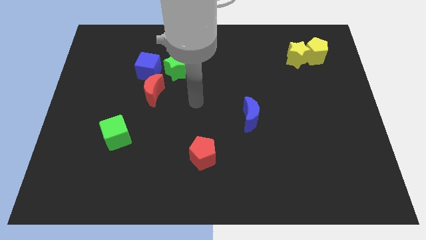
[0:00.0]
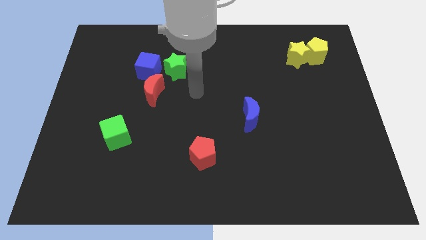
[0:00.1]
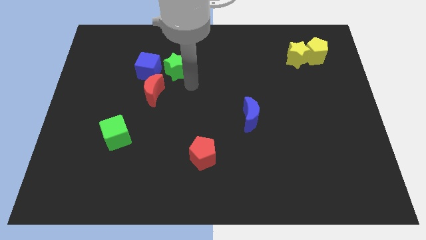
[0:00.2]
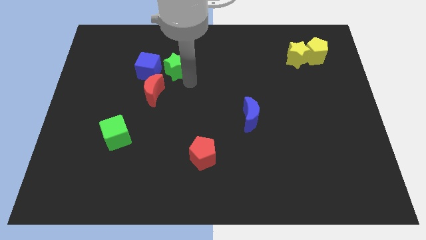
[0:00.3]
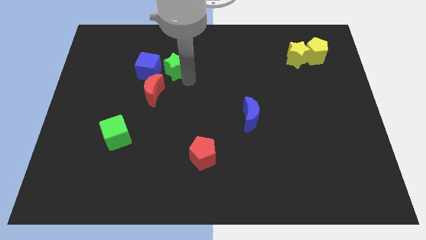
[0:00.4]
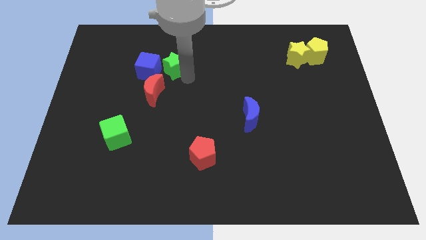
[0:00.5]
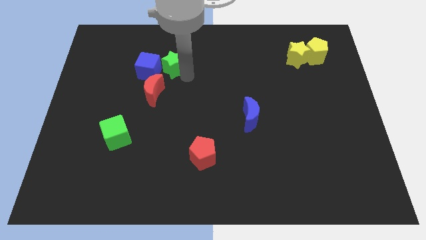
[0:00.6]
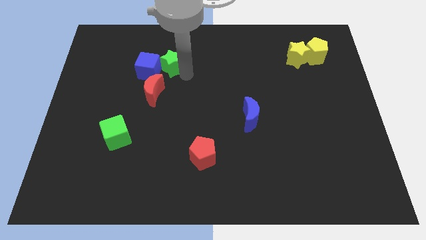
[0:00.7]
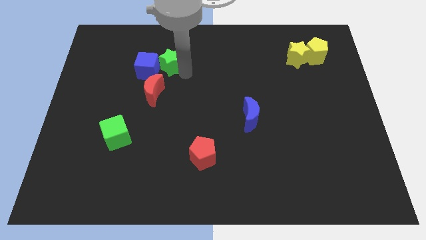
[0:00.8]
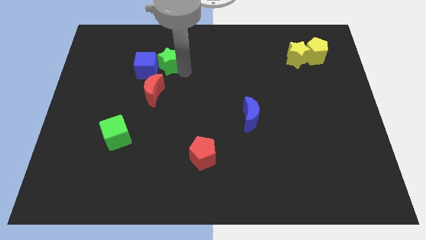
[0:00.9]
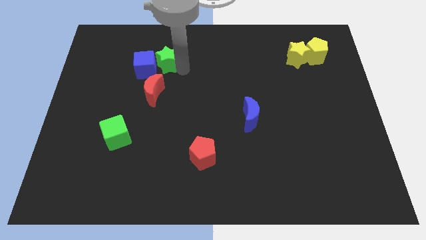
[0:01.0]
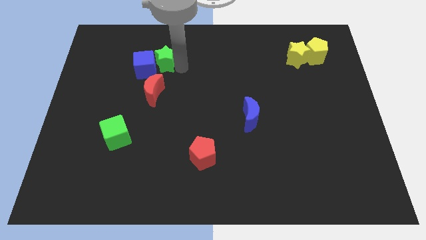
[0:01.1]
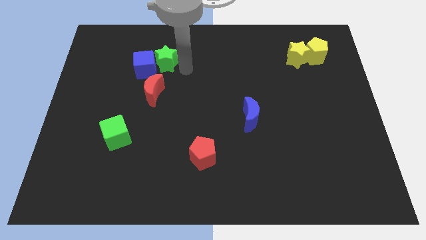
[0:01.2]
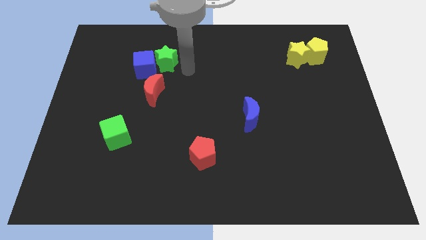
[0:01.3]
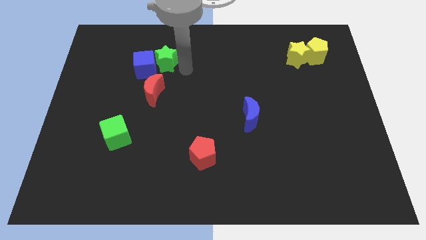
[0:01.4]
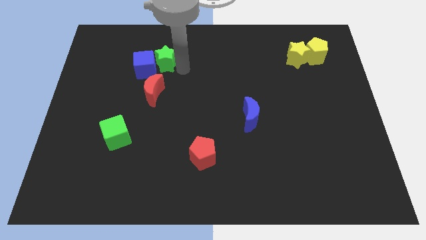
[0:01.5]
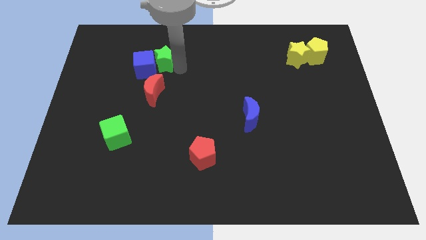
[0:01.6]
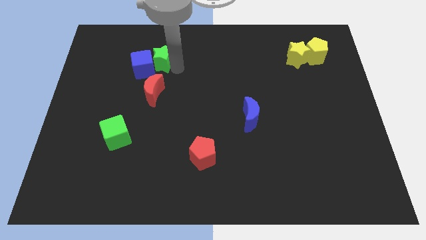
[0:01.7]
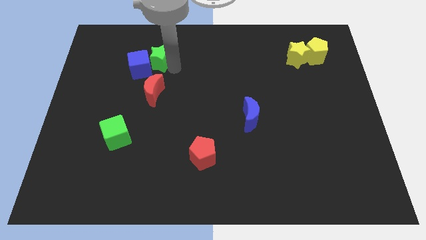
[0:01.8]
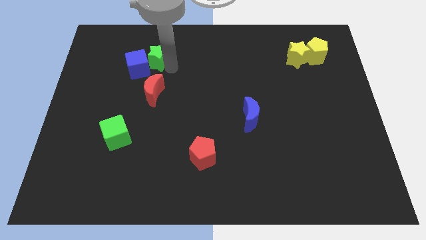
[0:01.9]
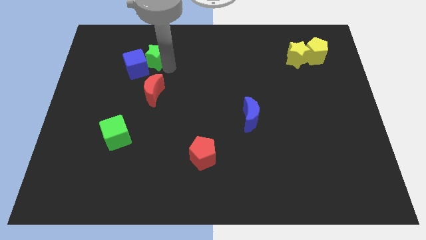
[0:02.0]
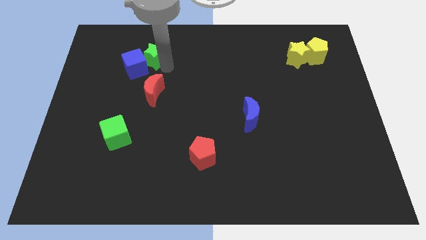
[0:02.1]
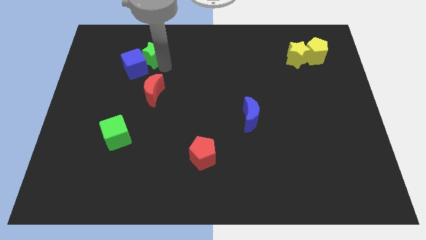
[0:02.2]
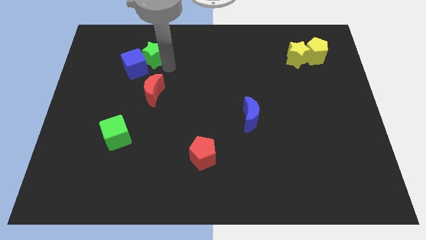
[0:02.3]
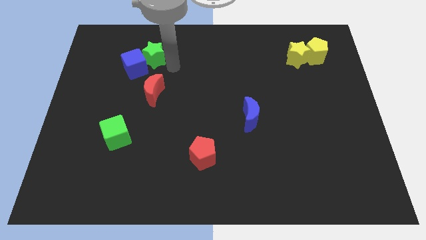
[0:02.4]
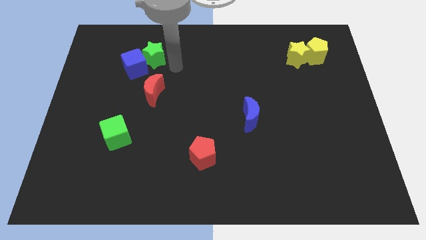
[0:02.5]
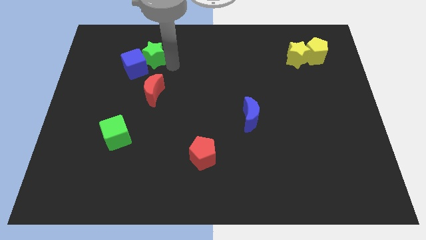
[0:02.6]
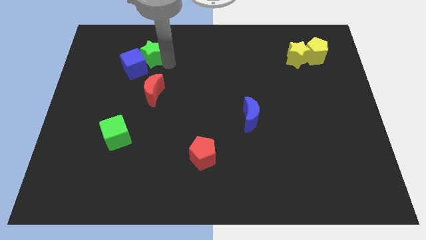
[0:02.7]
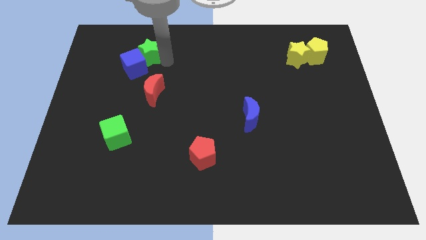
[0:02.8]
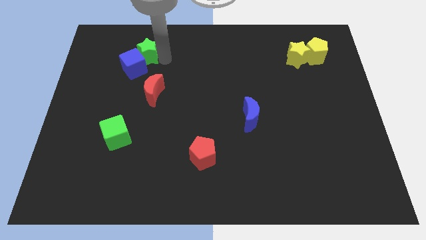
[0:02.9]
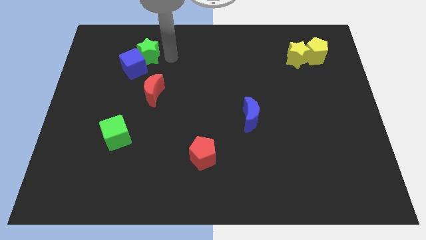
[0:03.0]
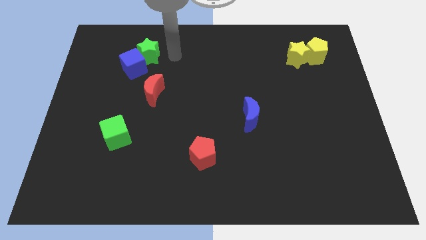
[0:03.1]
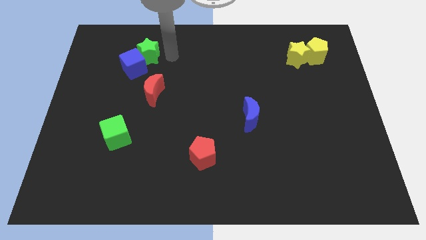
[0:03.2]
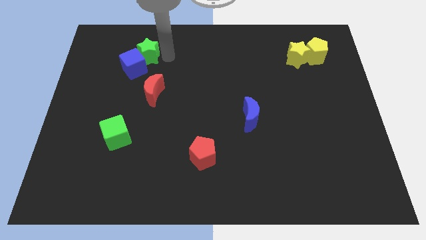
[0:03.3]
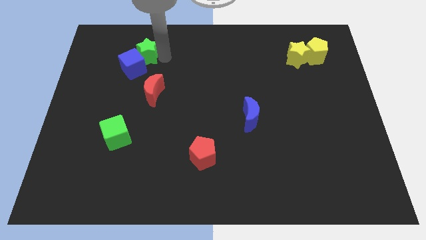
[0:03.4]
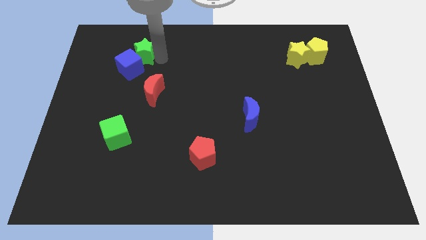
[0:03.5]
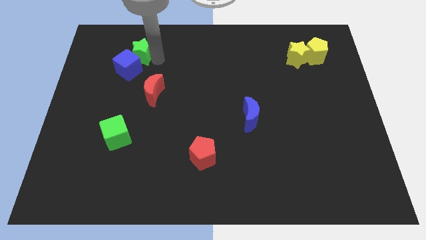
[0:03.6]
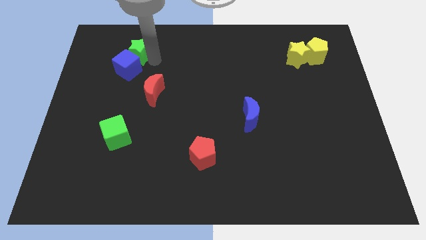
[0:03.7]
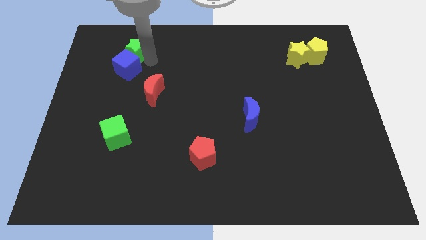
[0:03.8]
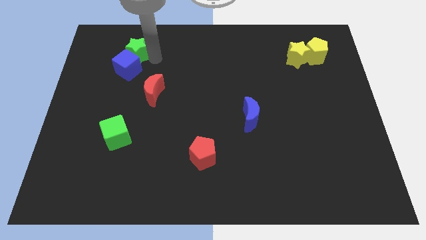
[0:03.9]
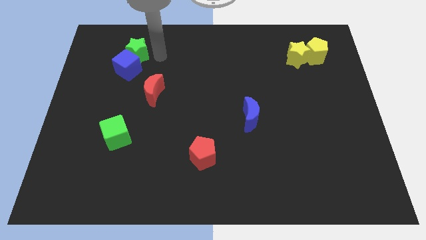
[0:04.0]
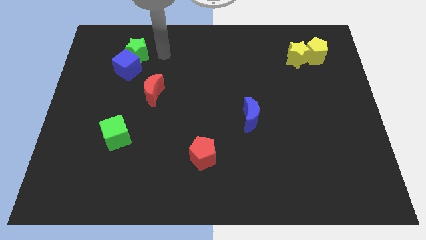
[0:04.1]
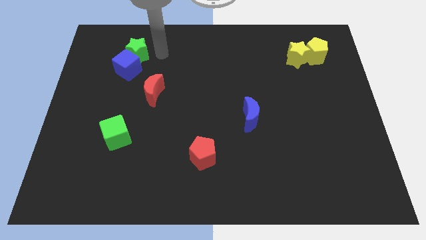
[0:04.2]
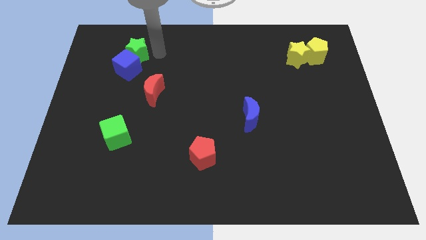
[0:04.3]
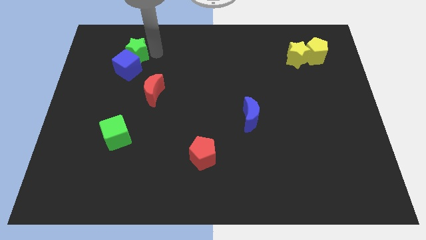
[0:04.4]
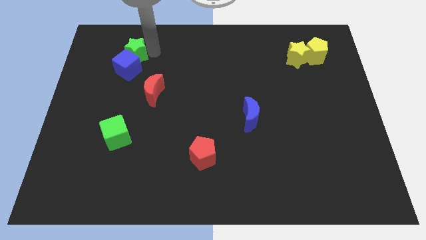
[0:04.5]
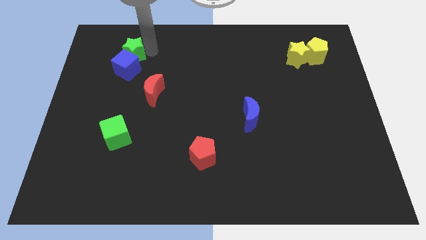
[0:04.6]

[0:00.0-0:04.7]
push the green star to the top left of the blue cube

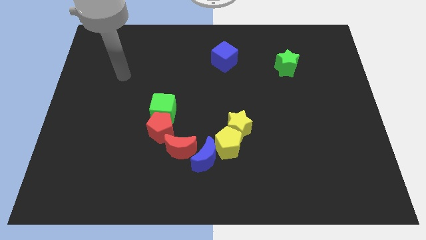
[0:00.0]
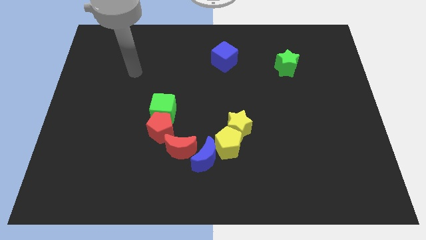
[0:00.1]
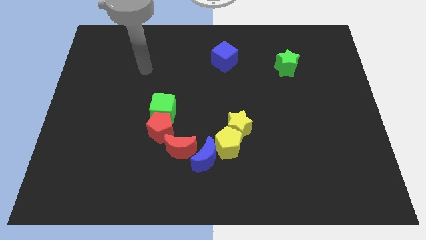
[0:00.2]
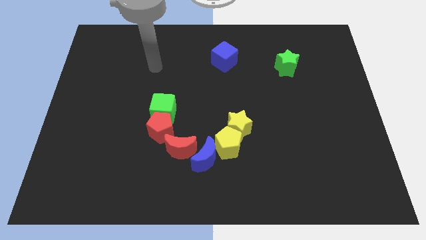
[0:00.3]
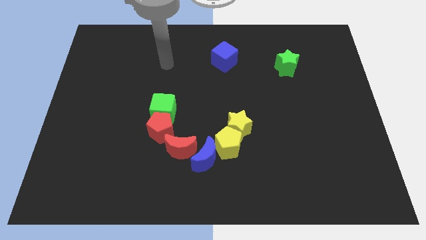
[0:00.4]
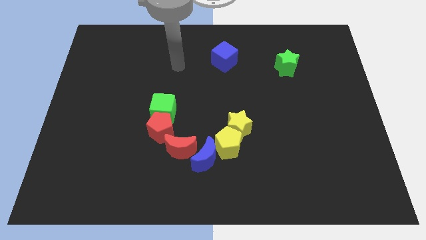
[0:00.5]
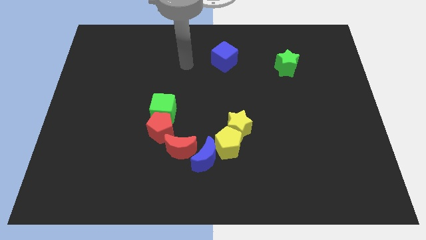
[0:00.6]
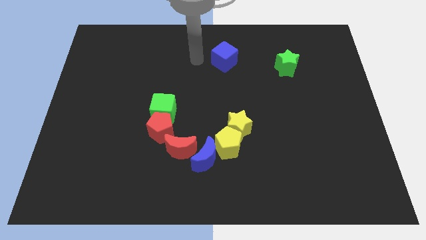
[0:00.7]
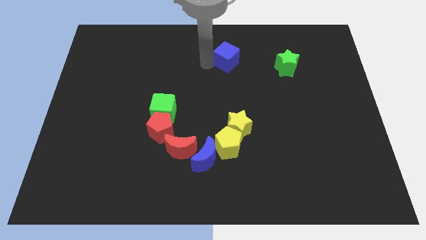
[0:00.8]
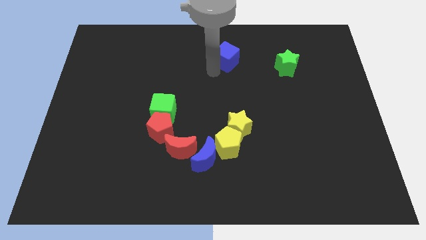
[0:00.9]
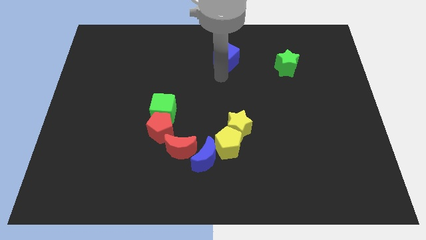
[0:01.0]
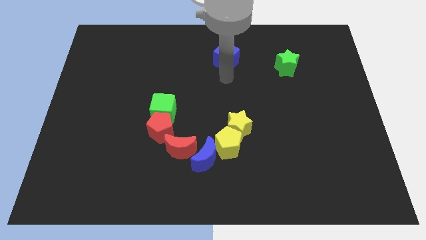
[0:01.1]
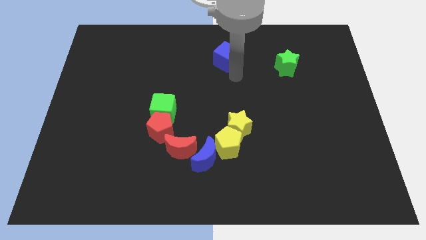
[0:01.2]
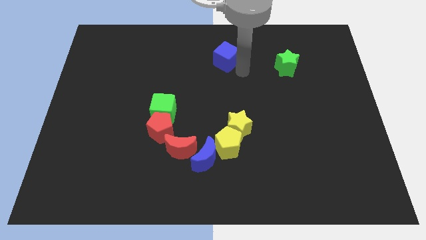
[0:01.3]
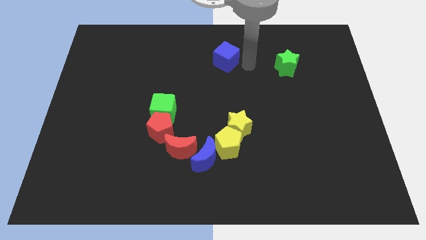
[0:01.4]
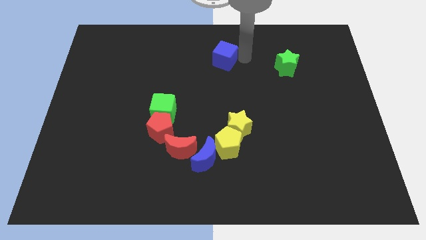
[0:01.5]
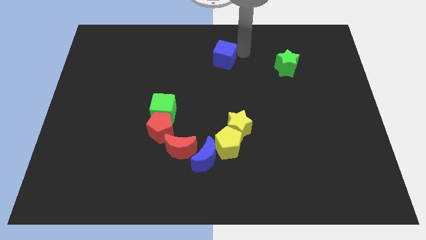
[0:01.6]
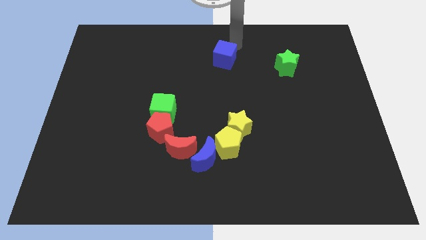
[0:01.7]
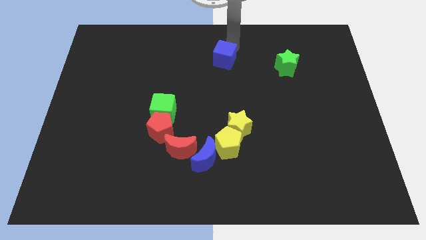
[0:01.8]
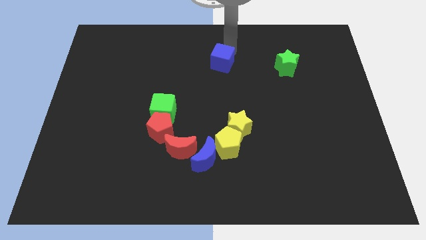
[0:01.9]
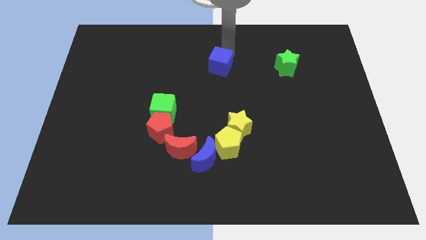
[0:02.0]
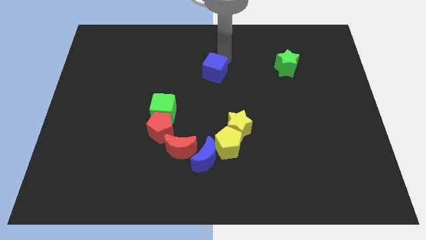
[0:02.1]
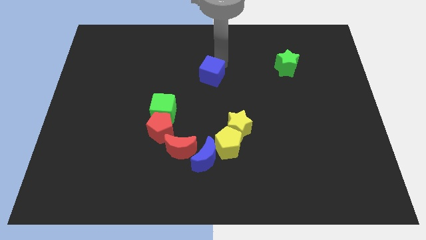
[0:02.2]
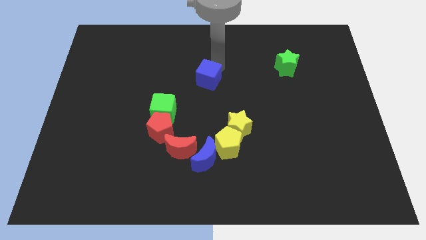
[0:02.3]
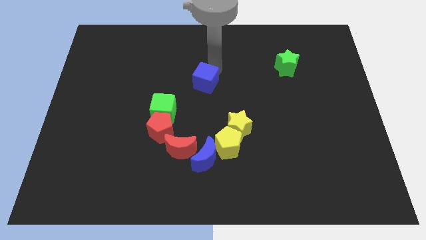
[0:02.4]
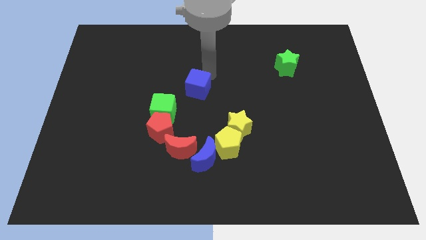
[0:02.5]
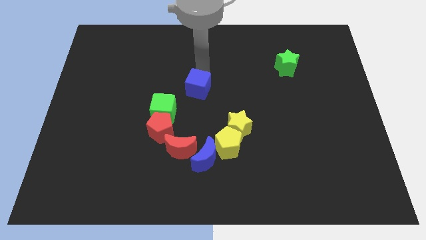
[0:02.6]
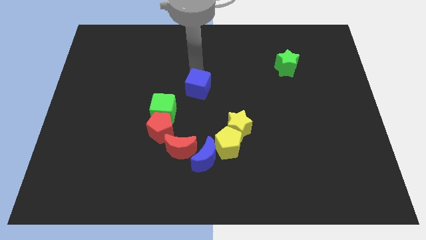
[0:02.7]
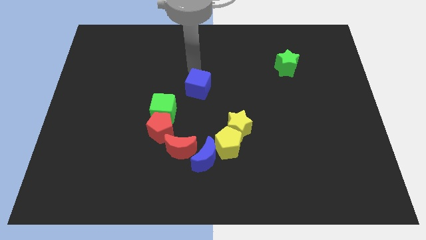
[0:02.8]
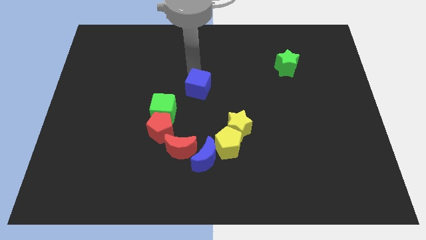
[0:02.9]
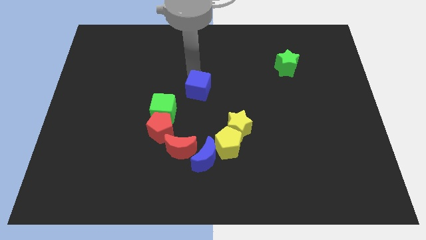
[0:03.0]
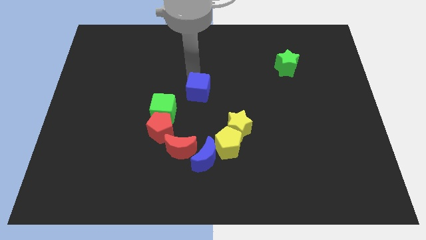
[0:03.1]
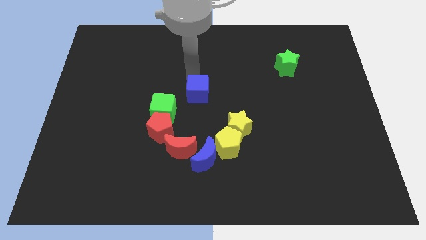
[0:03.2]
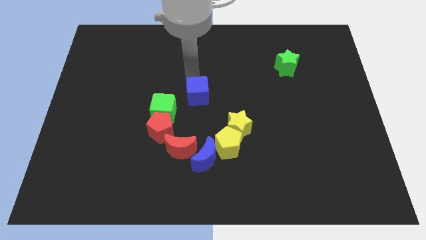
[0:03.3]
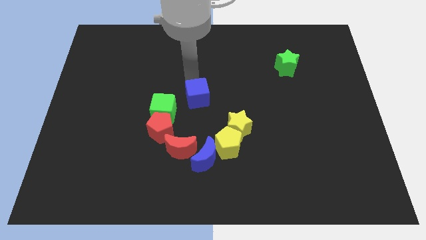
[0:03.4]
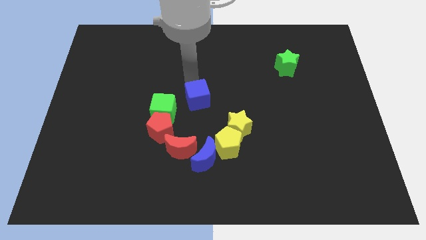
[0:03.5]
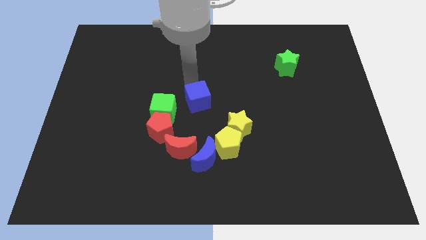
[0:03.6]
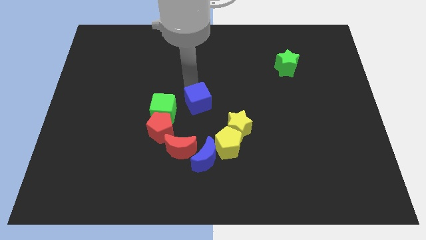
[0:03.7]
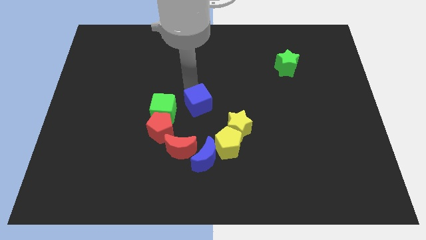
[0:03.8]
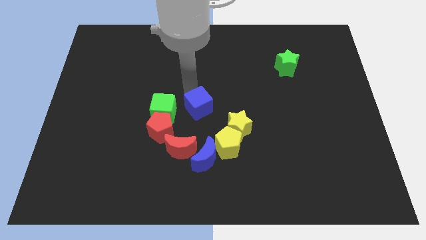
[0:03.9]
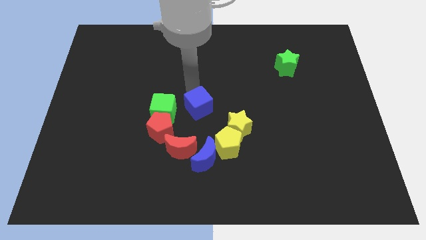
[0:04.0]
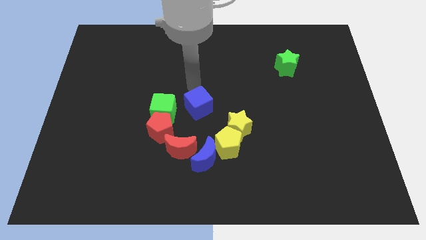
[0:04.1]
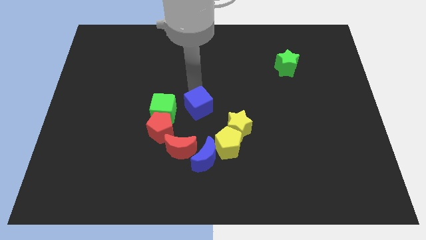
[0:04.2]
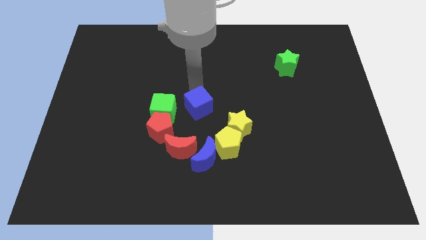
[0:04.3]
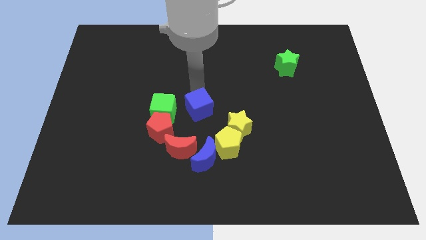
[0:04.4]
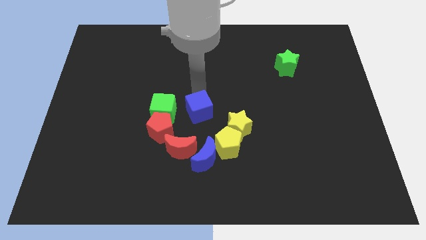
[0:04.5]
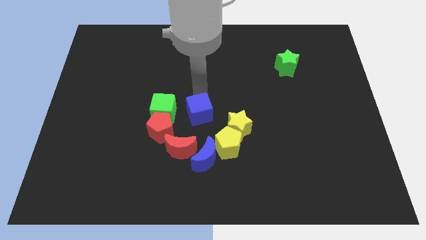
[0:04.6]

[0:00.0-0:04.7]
push the blue cube diagonally up and to the right of the red moon
